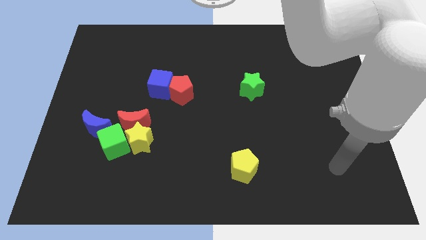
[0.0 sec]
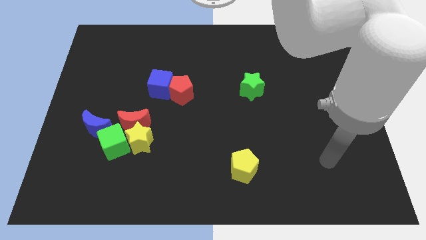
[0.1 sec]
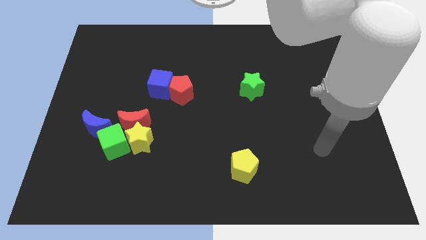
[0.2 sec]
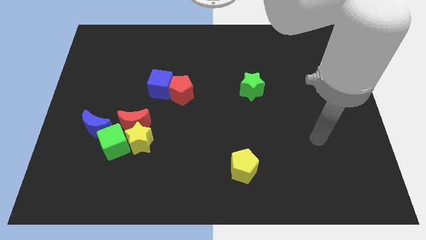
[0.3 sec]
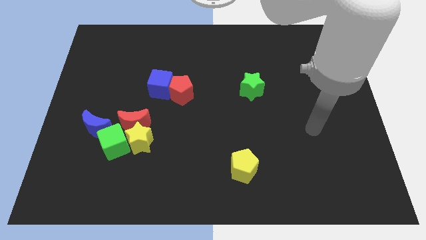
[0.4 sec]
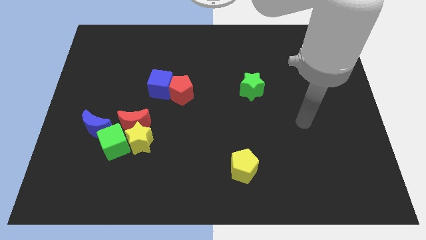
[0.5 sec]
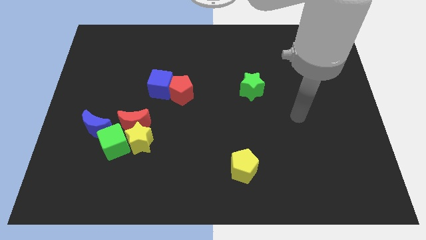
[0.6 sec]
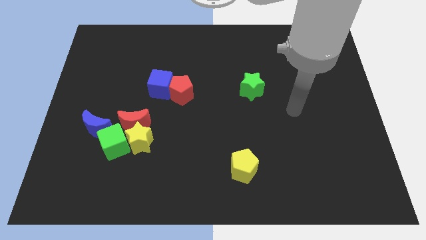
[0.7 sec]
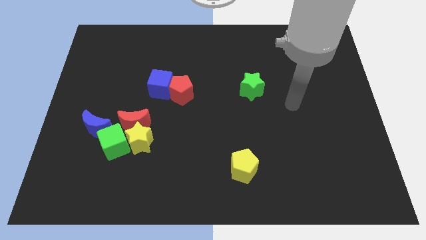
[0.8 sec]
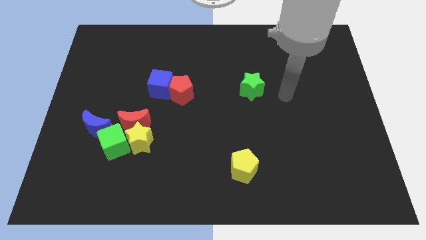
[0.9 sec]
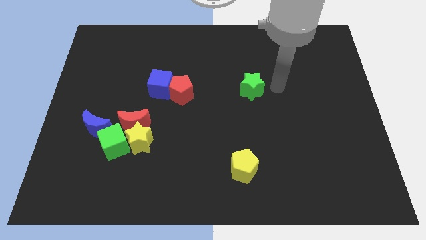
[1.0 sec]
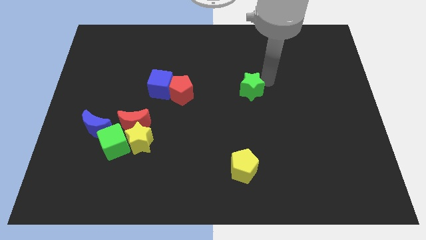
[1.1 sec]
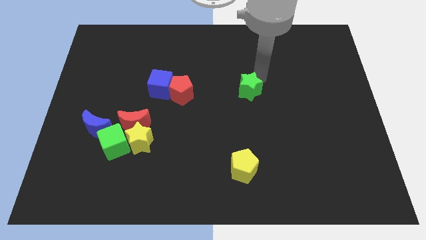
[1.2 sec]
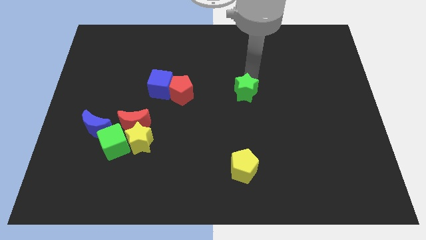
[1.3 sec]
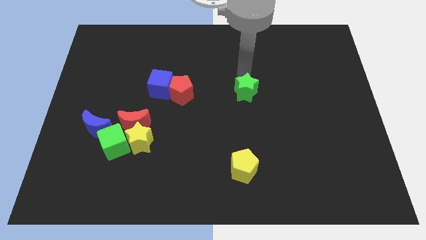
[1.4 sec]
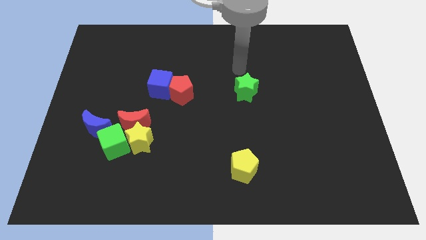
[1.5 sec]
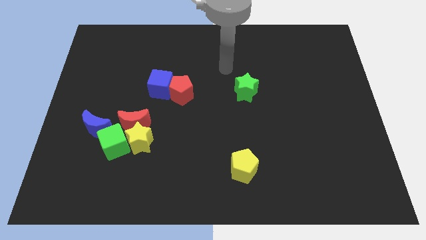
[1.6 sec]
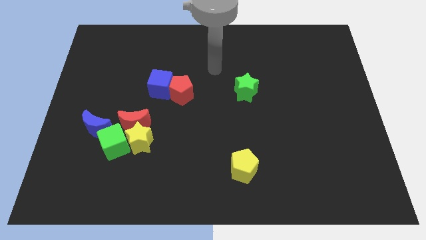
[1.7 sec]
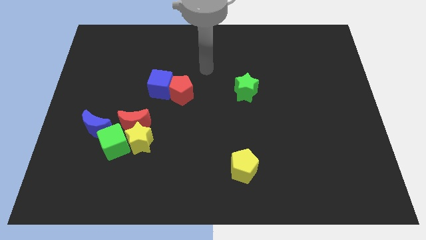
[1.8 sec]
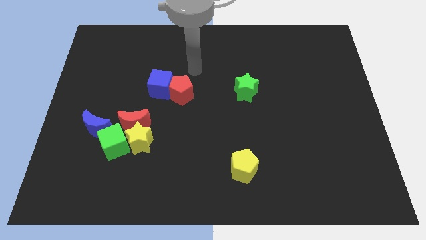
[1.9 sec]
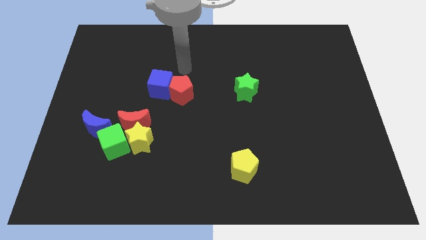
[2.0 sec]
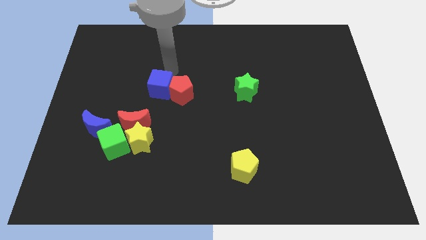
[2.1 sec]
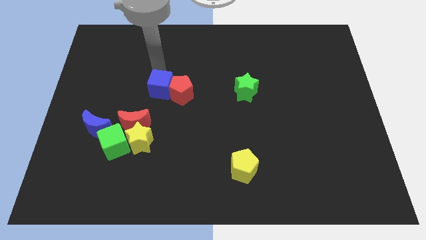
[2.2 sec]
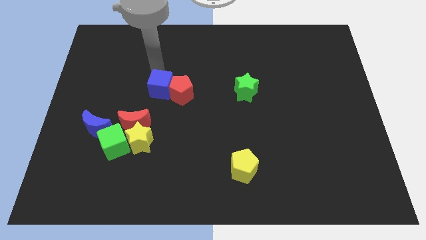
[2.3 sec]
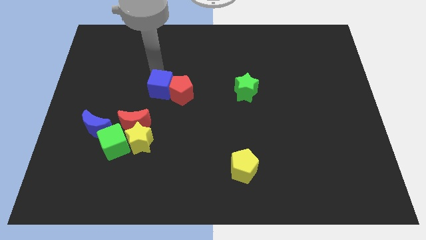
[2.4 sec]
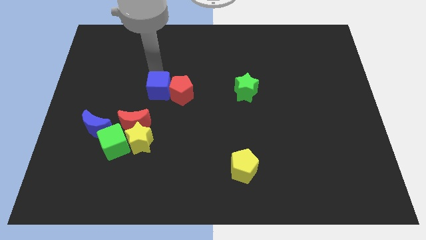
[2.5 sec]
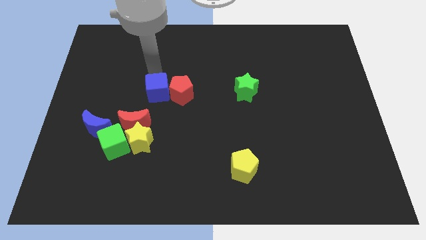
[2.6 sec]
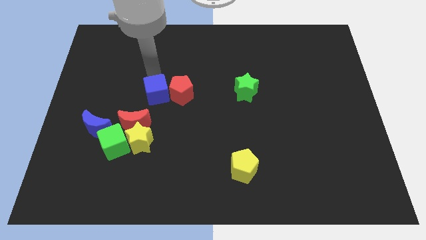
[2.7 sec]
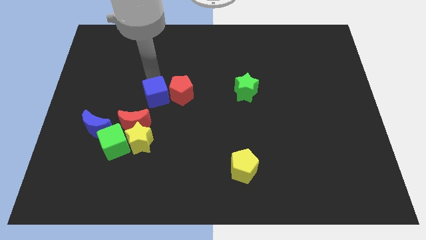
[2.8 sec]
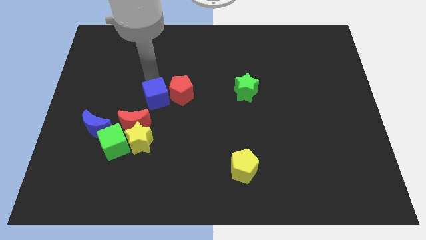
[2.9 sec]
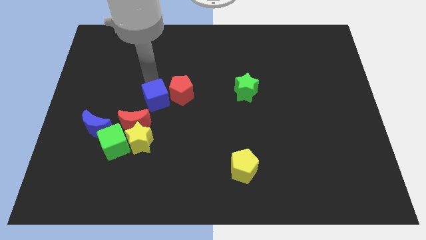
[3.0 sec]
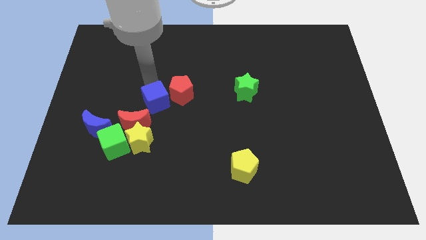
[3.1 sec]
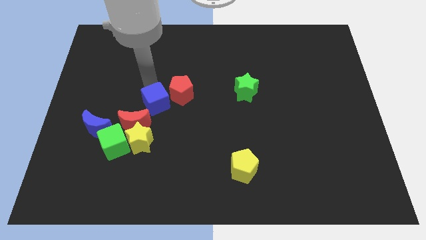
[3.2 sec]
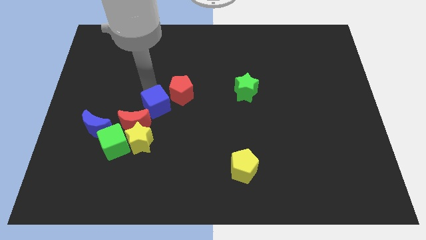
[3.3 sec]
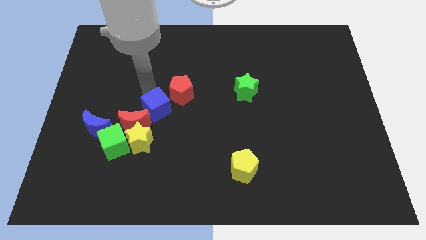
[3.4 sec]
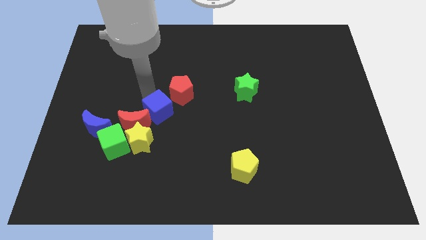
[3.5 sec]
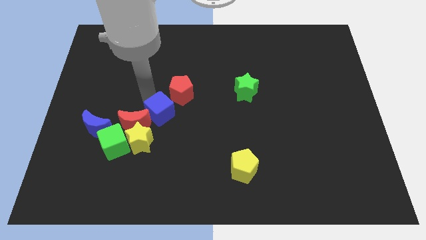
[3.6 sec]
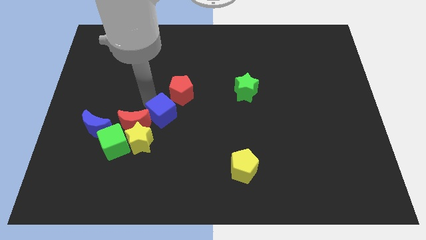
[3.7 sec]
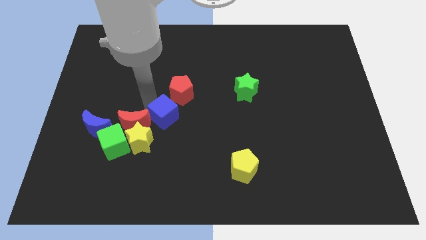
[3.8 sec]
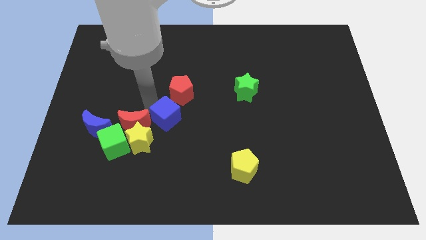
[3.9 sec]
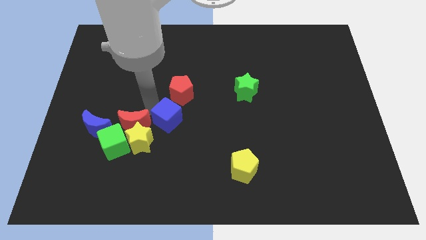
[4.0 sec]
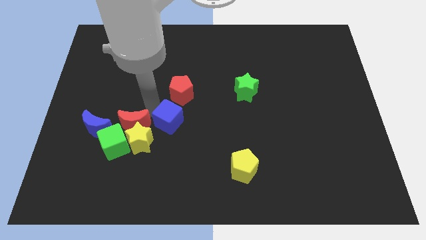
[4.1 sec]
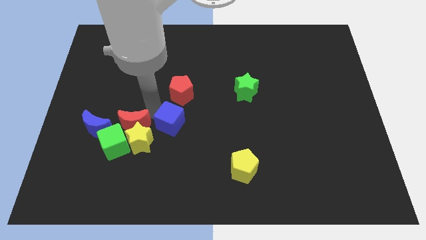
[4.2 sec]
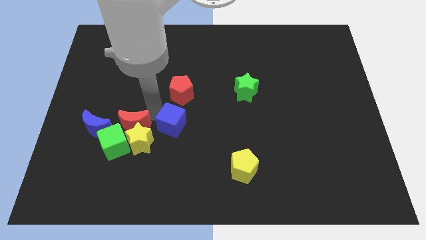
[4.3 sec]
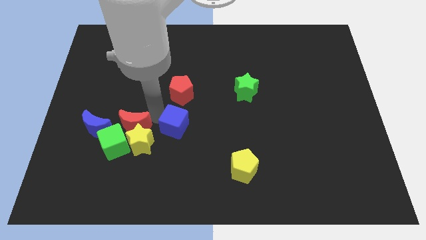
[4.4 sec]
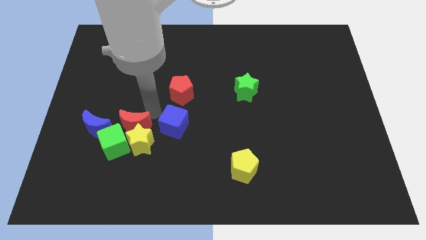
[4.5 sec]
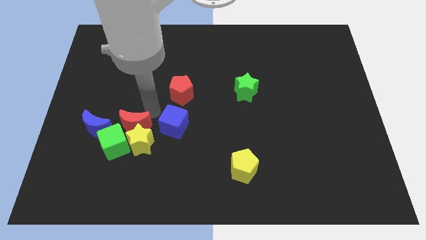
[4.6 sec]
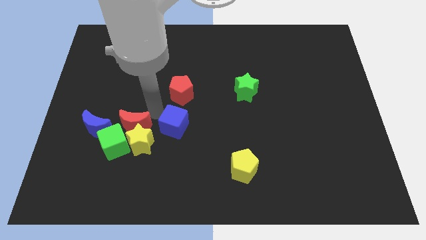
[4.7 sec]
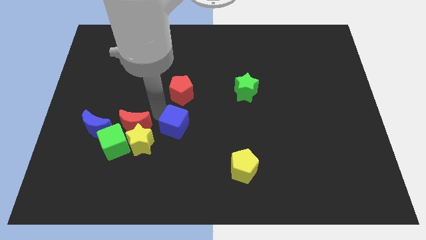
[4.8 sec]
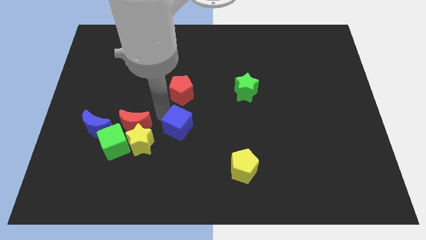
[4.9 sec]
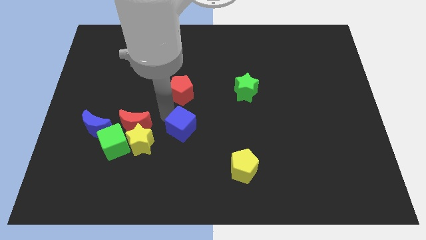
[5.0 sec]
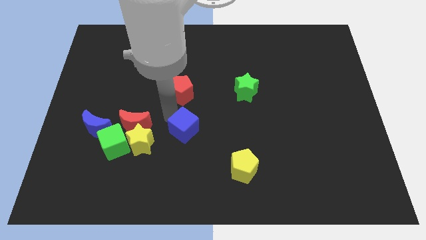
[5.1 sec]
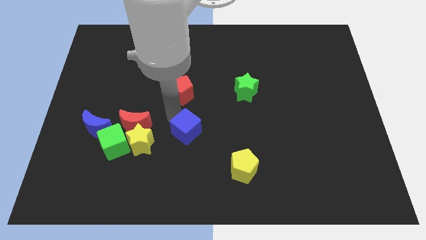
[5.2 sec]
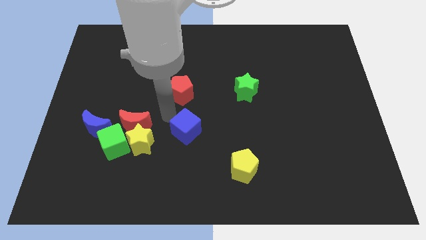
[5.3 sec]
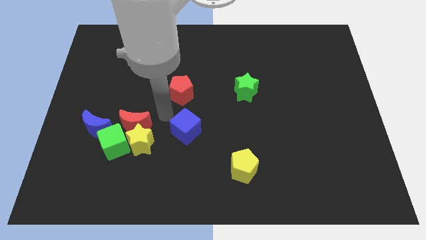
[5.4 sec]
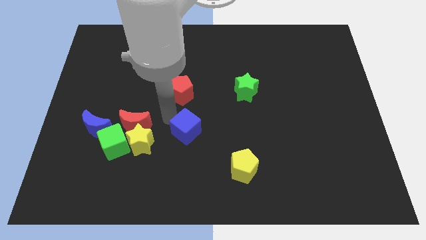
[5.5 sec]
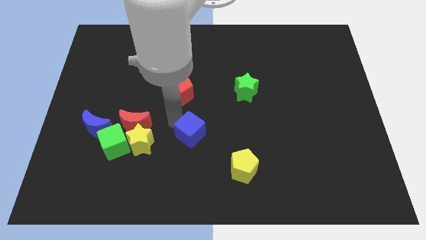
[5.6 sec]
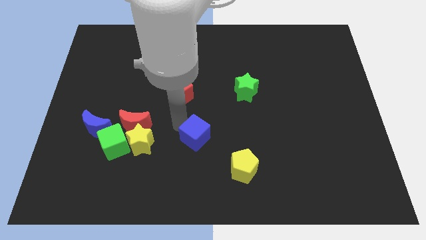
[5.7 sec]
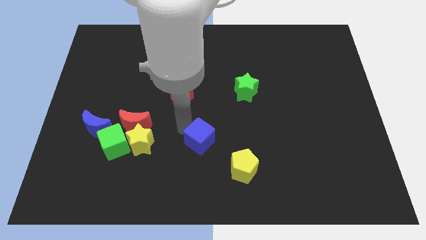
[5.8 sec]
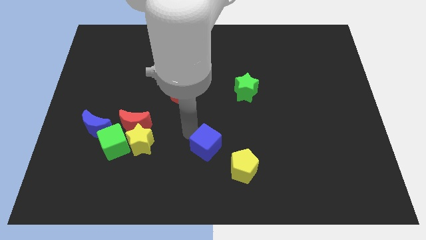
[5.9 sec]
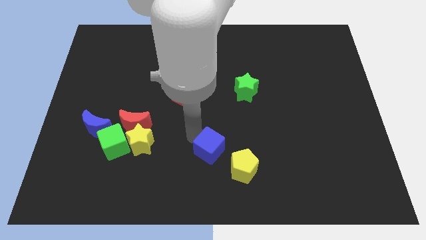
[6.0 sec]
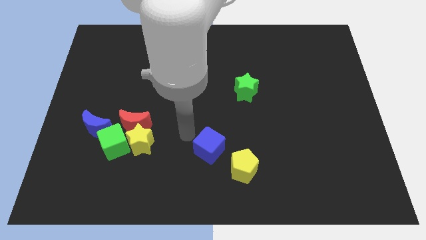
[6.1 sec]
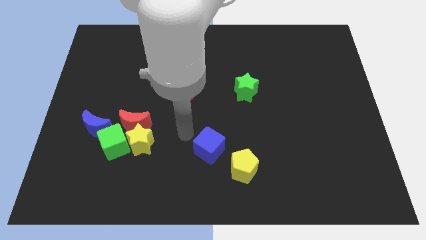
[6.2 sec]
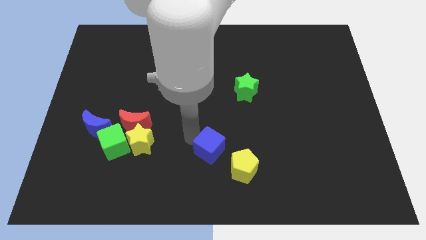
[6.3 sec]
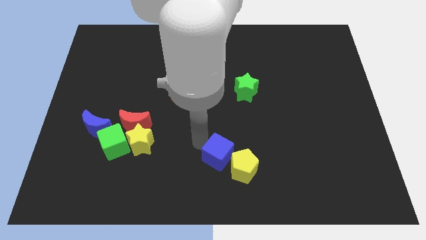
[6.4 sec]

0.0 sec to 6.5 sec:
push the blue cube towards the yellow pentagon

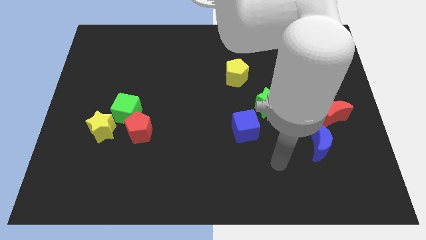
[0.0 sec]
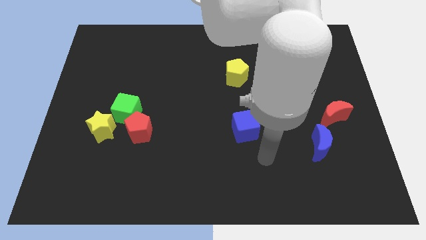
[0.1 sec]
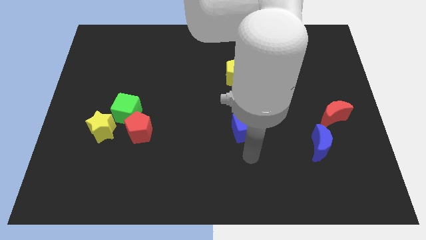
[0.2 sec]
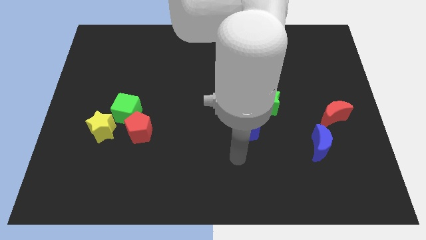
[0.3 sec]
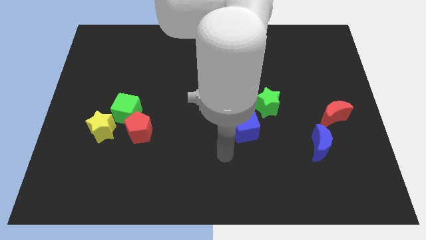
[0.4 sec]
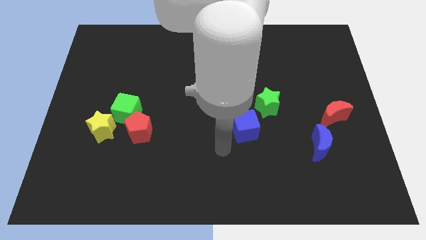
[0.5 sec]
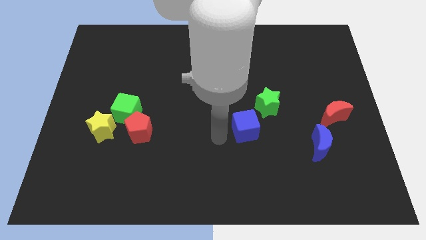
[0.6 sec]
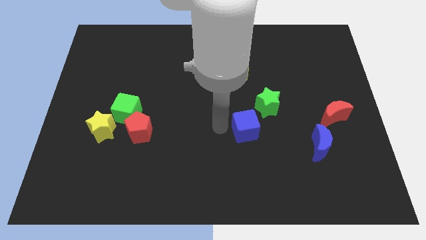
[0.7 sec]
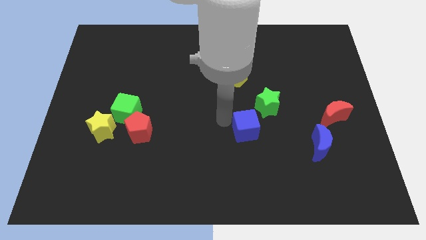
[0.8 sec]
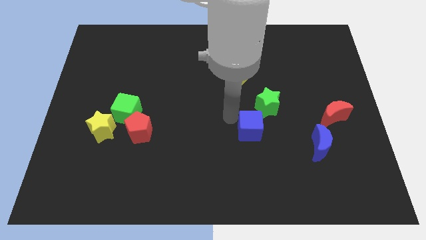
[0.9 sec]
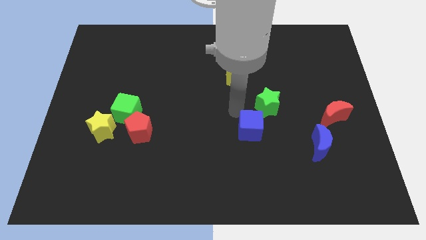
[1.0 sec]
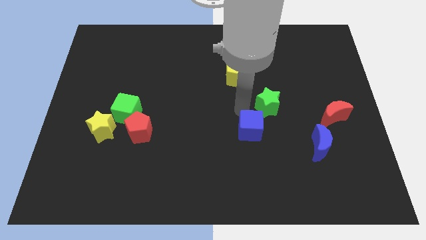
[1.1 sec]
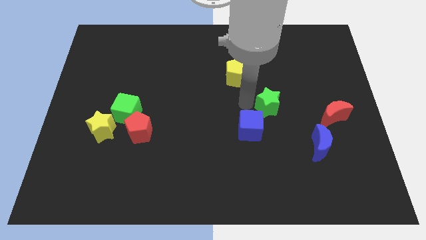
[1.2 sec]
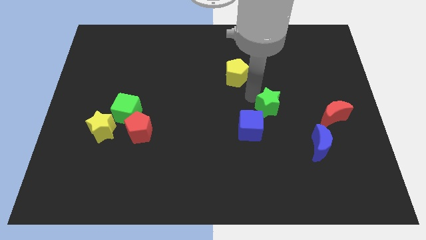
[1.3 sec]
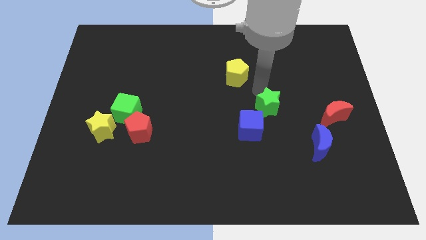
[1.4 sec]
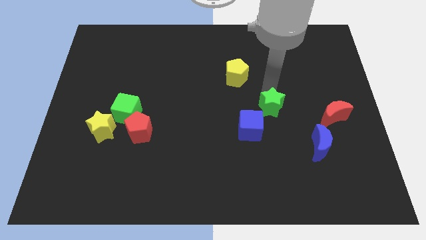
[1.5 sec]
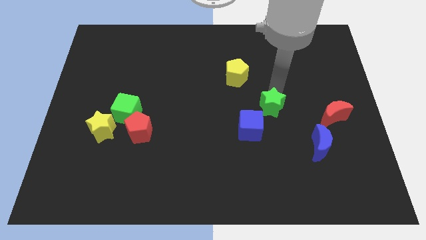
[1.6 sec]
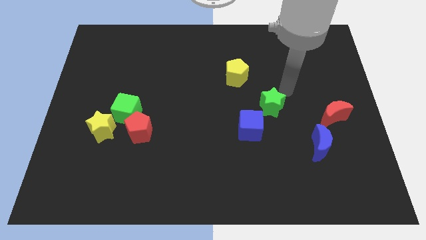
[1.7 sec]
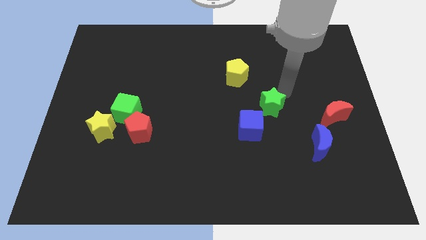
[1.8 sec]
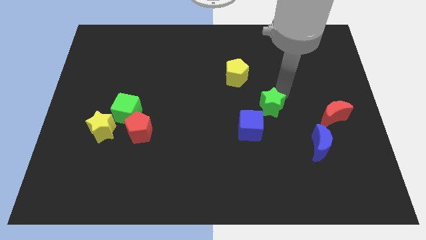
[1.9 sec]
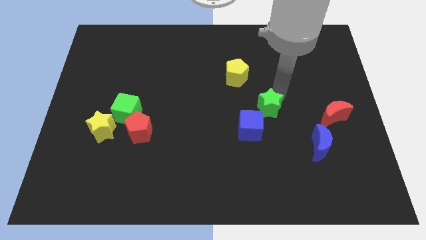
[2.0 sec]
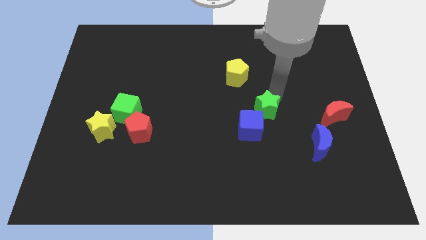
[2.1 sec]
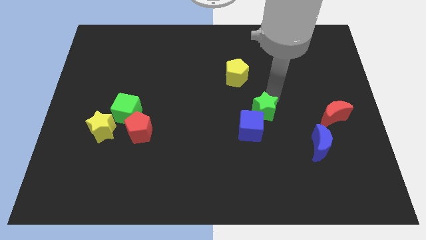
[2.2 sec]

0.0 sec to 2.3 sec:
put the green star to the blue cube
